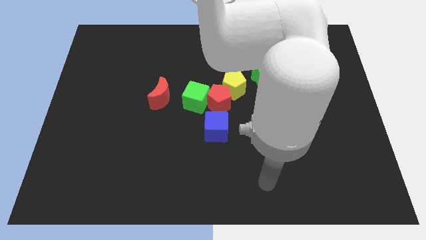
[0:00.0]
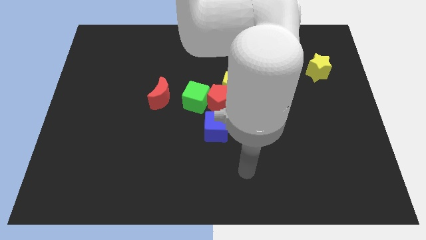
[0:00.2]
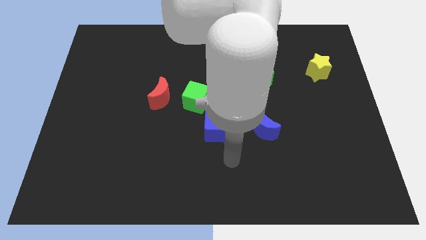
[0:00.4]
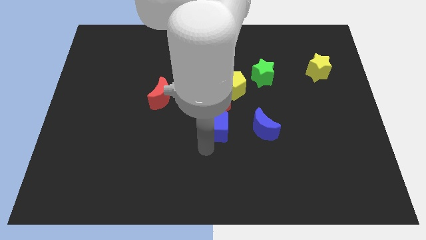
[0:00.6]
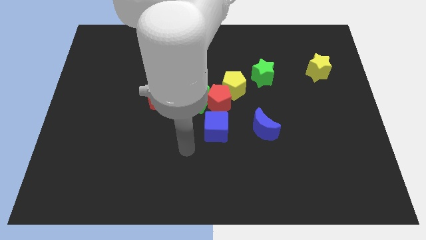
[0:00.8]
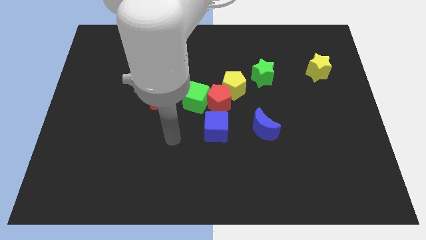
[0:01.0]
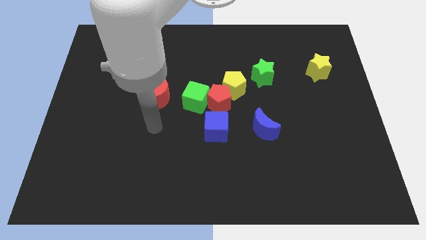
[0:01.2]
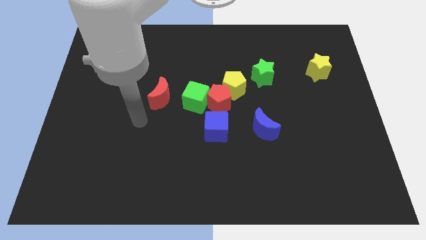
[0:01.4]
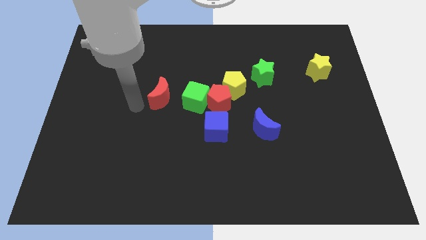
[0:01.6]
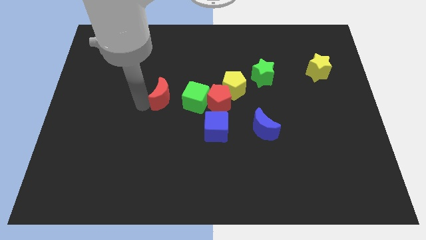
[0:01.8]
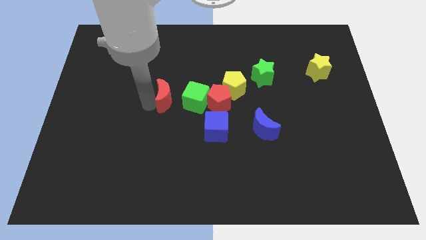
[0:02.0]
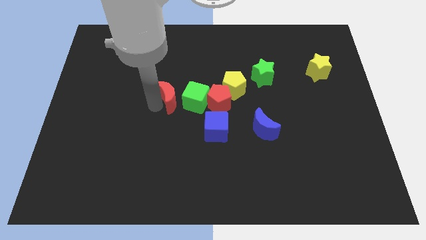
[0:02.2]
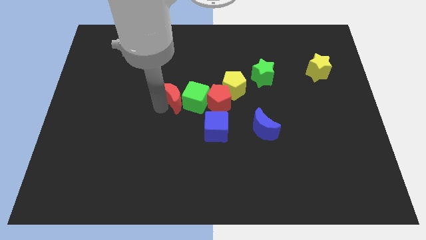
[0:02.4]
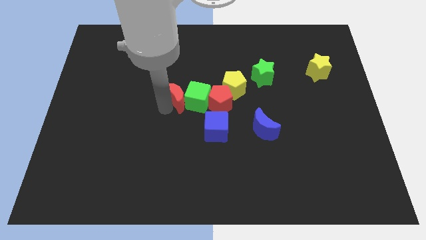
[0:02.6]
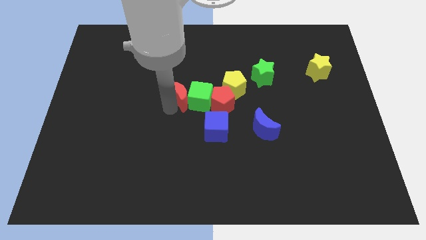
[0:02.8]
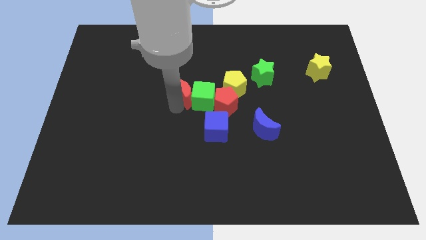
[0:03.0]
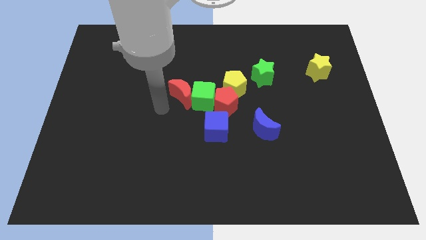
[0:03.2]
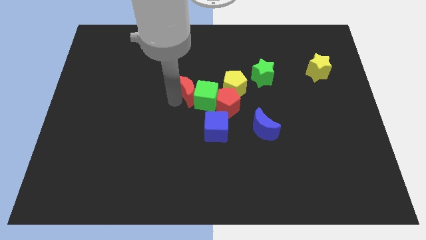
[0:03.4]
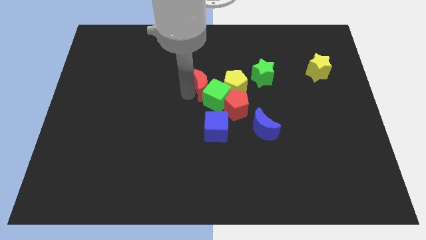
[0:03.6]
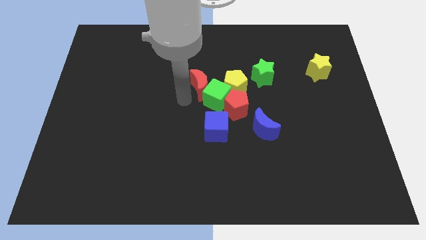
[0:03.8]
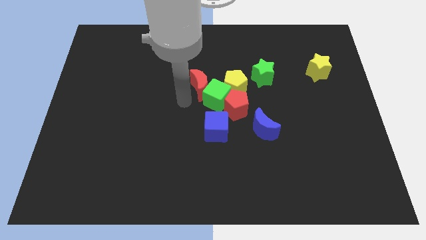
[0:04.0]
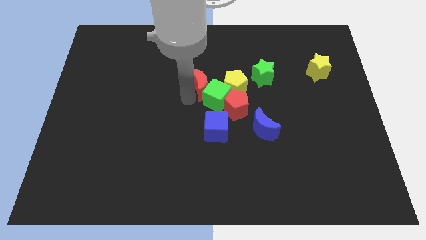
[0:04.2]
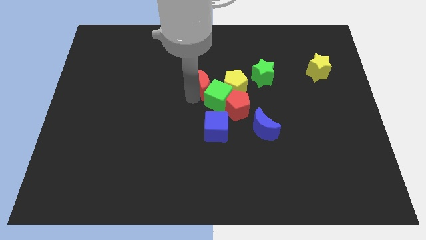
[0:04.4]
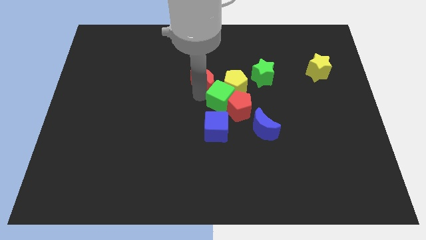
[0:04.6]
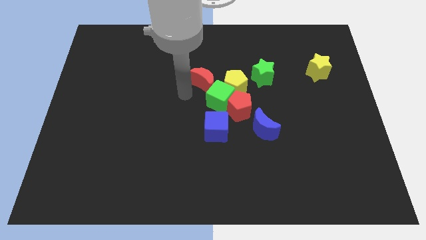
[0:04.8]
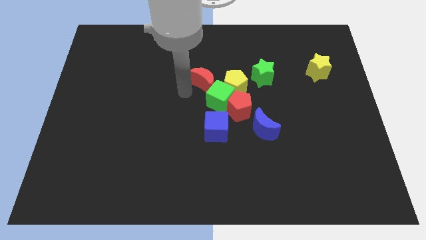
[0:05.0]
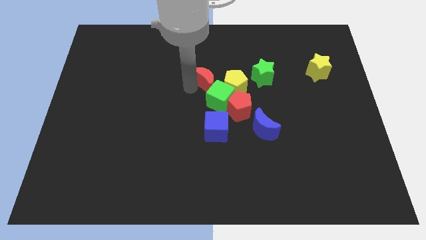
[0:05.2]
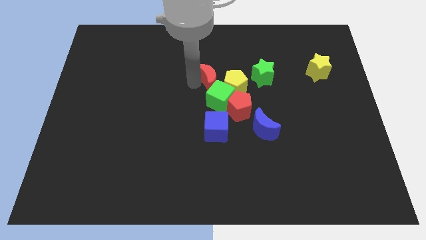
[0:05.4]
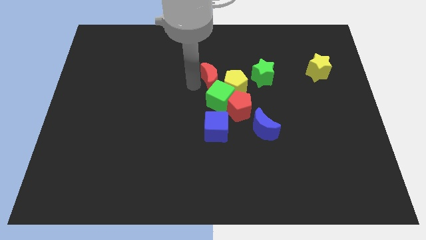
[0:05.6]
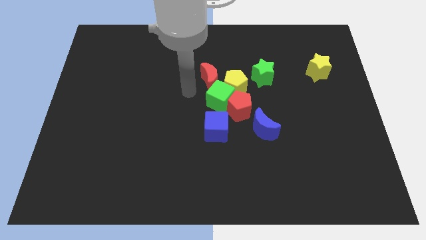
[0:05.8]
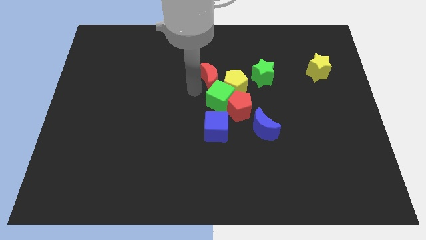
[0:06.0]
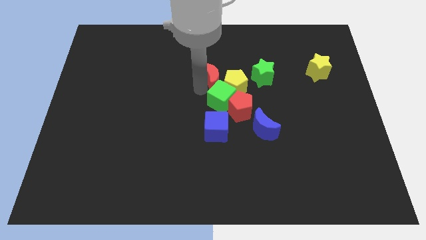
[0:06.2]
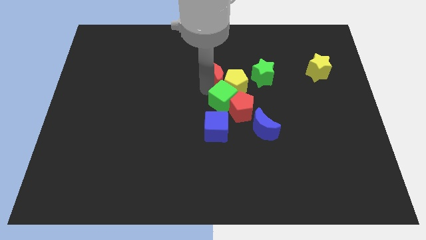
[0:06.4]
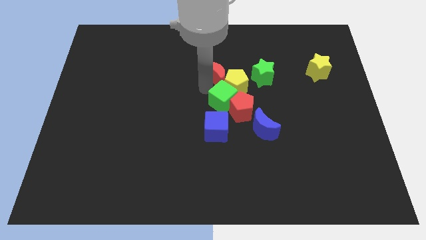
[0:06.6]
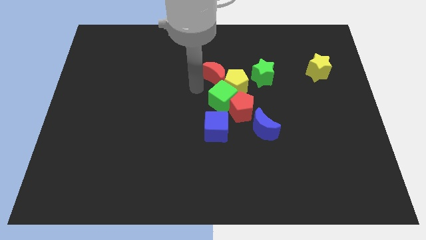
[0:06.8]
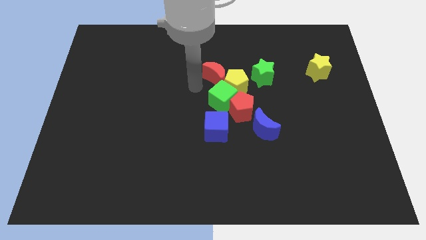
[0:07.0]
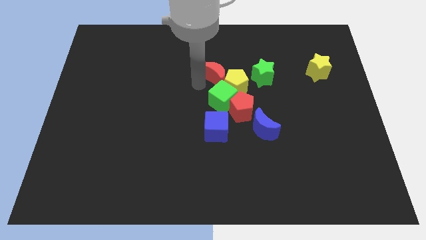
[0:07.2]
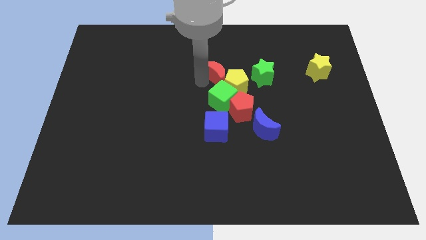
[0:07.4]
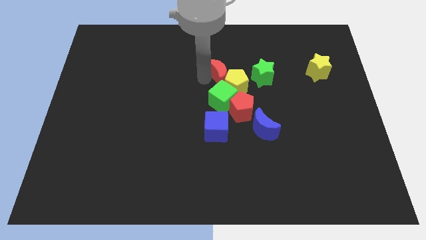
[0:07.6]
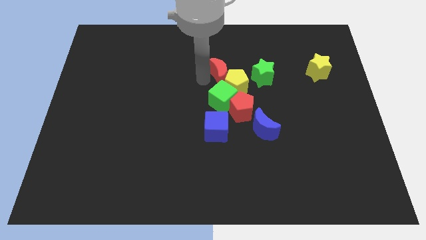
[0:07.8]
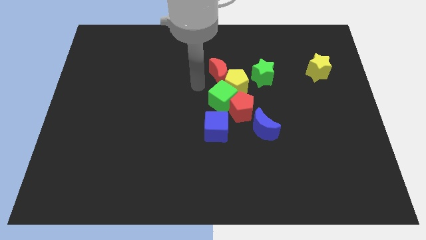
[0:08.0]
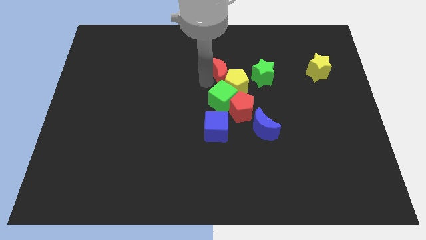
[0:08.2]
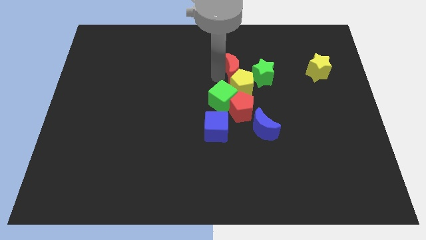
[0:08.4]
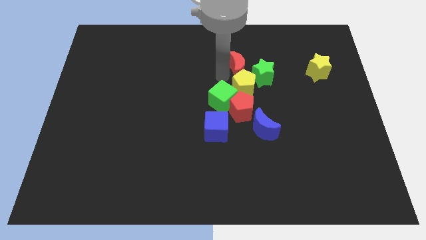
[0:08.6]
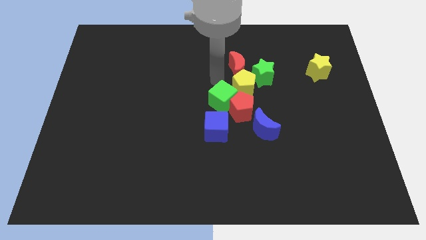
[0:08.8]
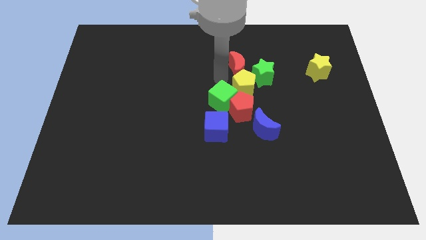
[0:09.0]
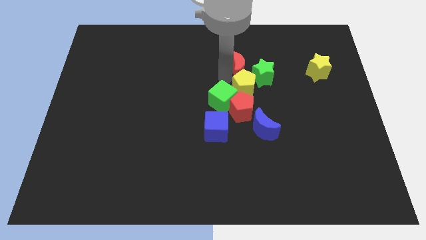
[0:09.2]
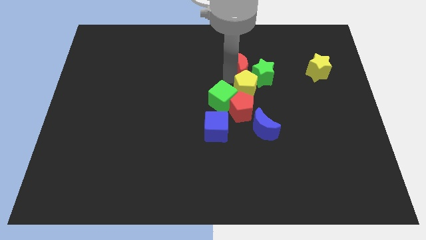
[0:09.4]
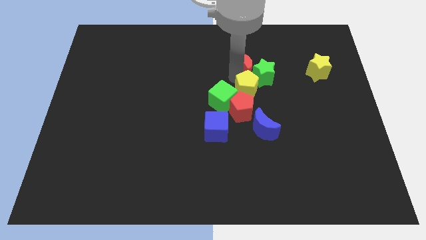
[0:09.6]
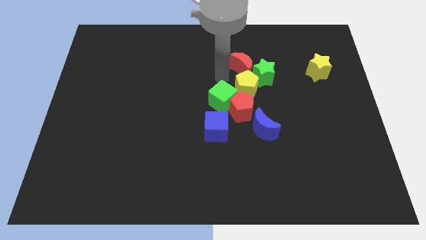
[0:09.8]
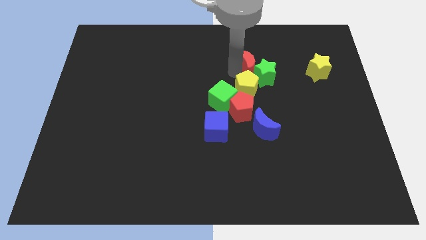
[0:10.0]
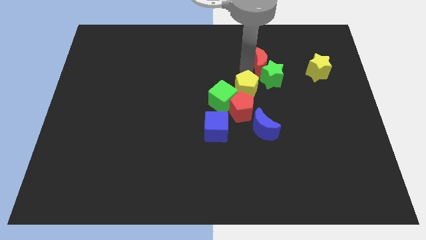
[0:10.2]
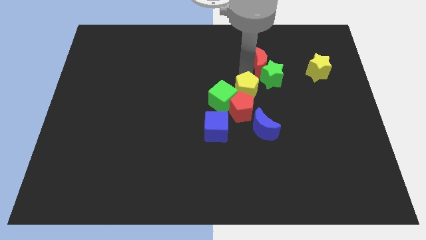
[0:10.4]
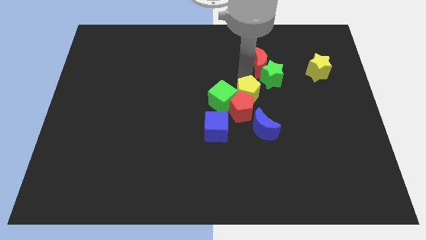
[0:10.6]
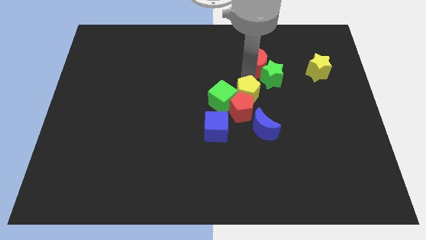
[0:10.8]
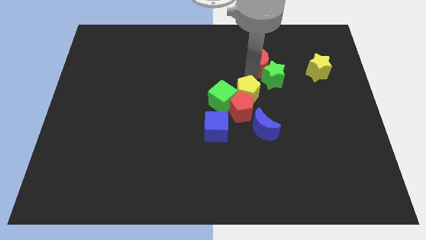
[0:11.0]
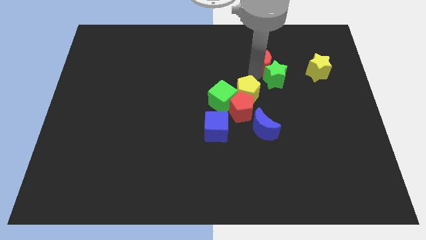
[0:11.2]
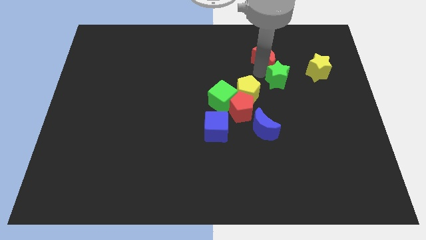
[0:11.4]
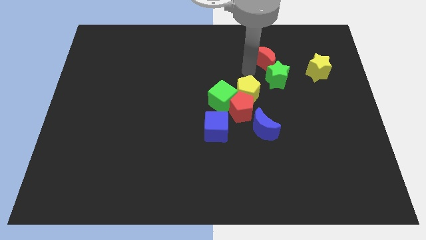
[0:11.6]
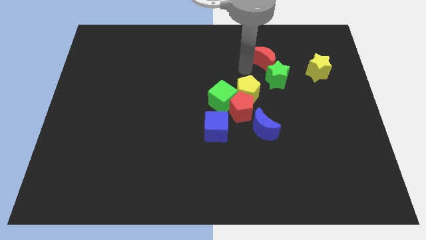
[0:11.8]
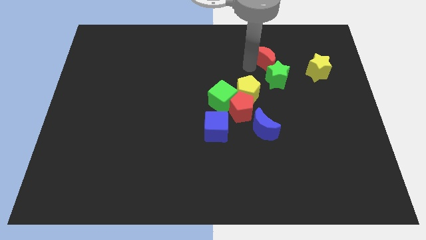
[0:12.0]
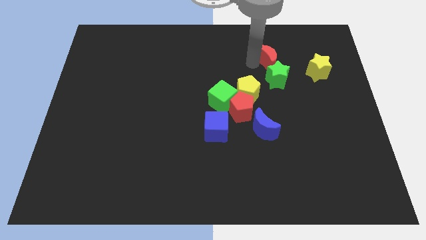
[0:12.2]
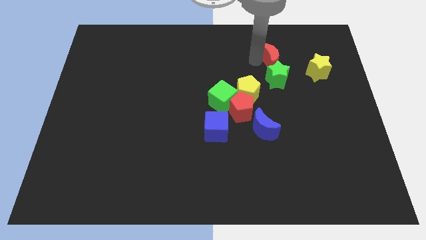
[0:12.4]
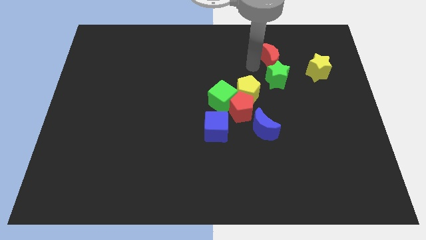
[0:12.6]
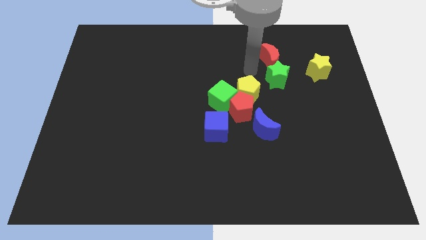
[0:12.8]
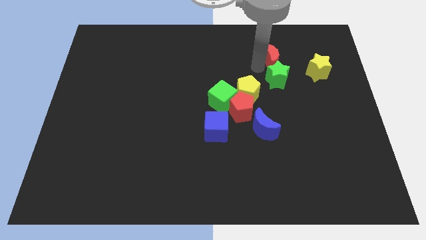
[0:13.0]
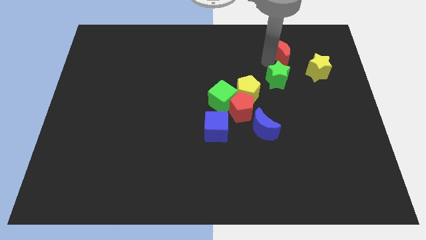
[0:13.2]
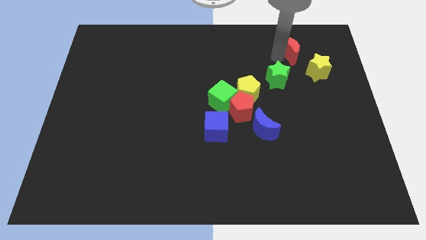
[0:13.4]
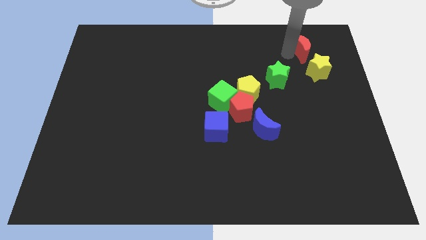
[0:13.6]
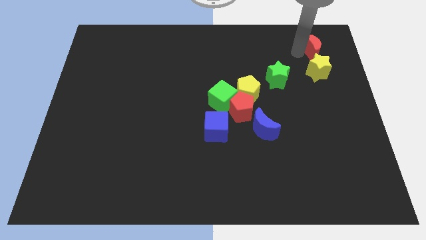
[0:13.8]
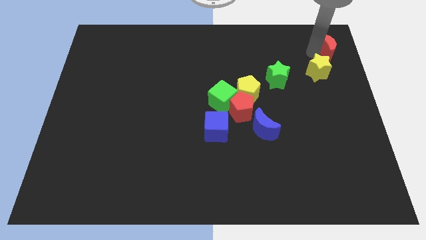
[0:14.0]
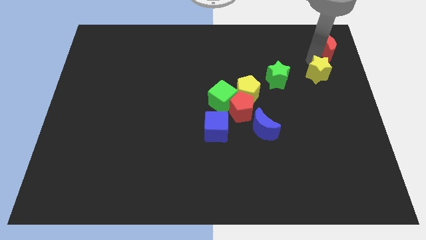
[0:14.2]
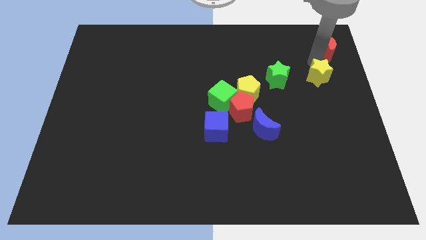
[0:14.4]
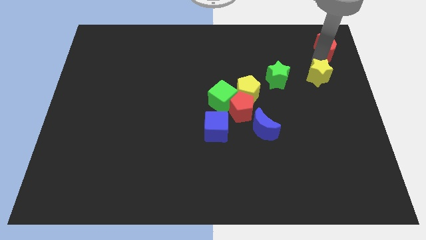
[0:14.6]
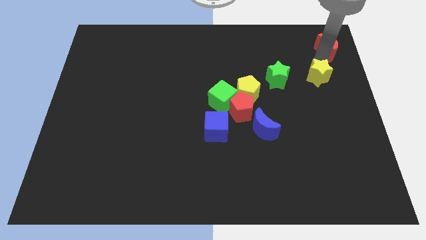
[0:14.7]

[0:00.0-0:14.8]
slide the red moon to the upper right corner

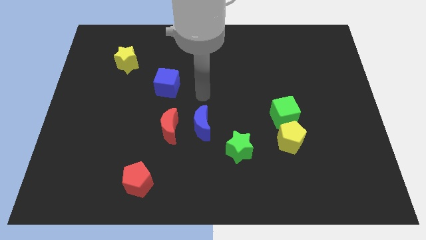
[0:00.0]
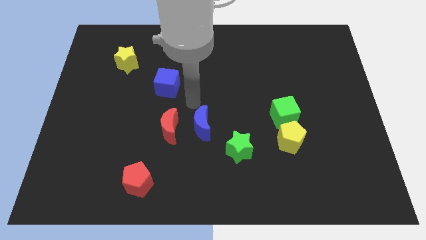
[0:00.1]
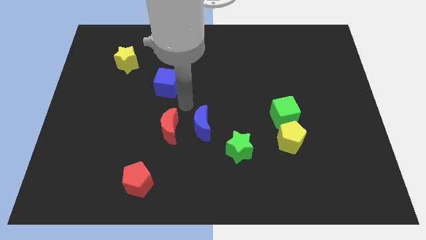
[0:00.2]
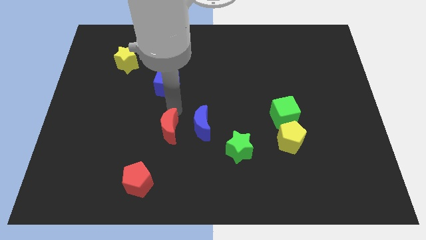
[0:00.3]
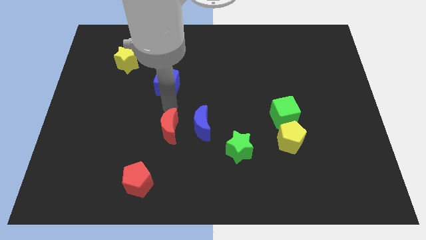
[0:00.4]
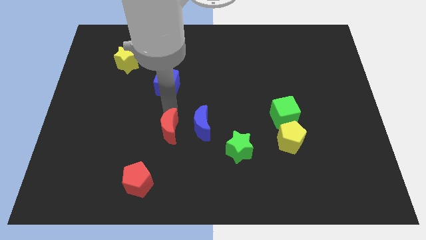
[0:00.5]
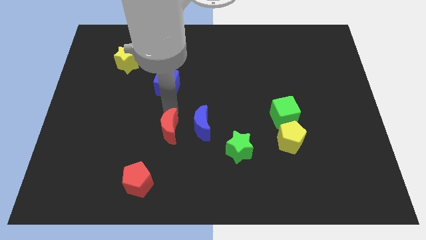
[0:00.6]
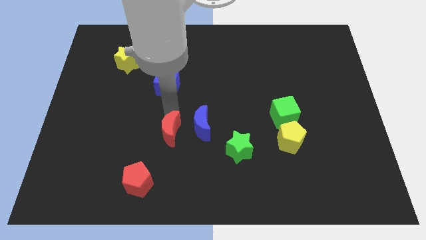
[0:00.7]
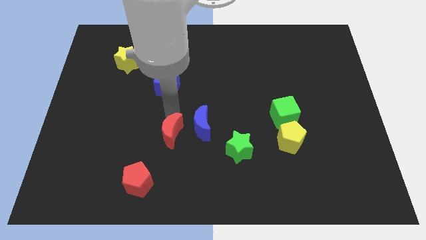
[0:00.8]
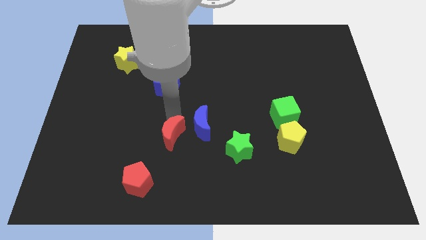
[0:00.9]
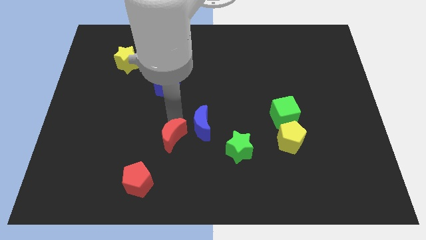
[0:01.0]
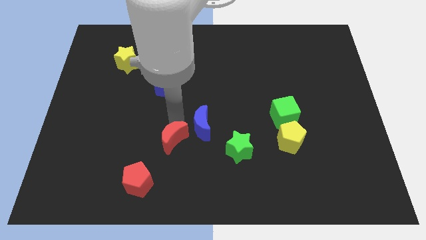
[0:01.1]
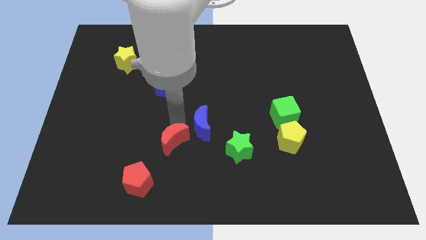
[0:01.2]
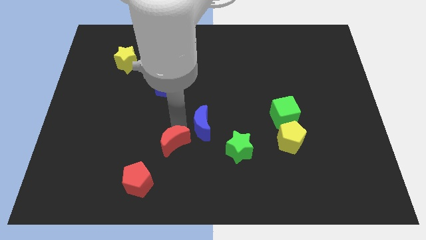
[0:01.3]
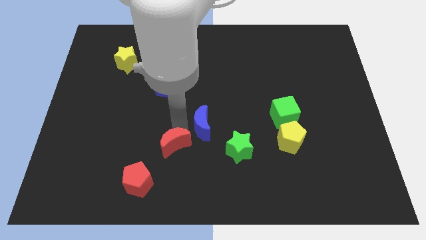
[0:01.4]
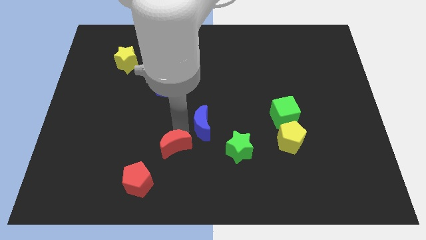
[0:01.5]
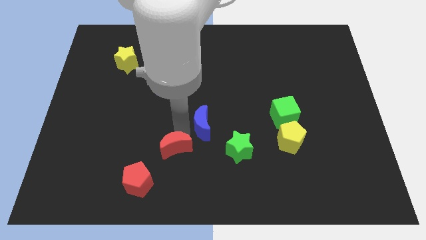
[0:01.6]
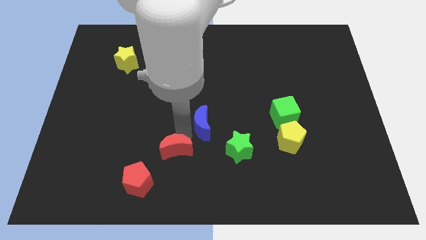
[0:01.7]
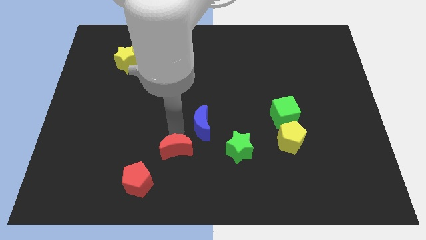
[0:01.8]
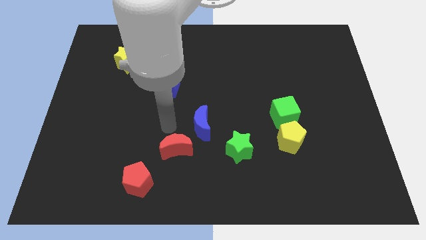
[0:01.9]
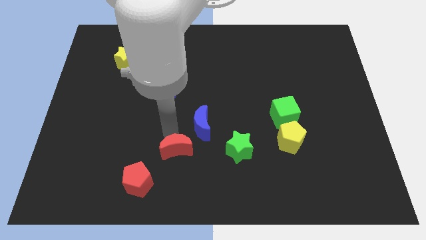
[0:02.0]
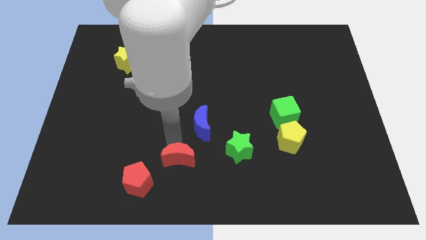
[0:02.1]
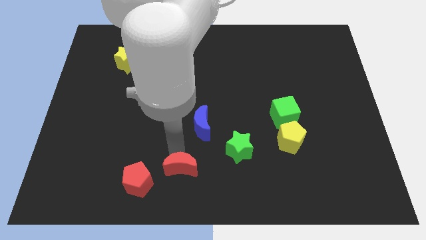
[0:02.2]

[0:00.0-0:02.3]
put the red moon to the bottom
